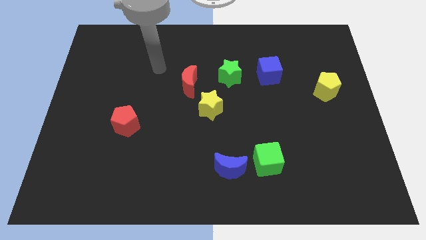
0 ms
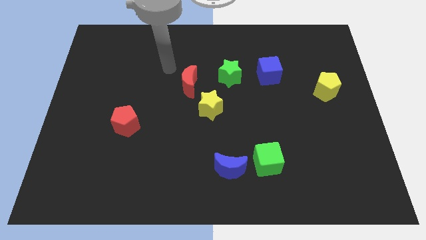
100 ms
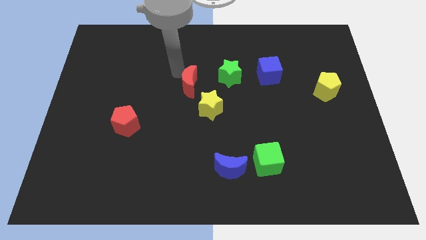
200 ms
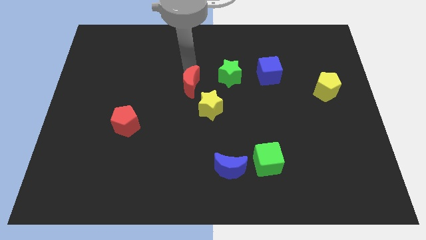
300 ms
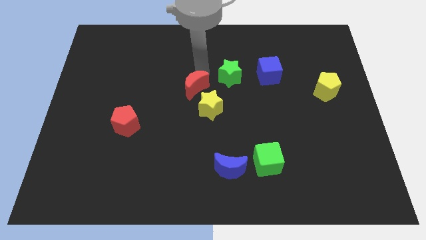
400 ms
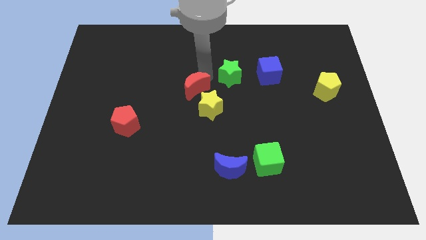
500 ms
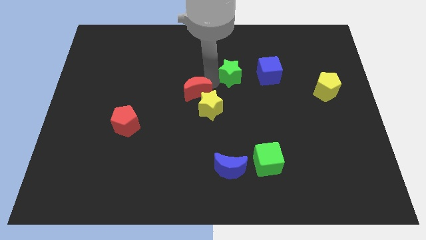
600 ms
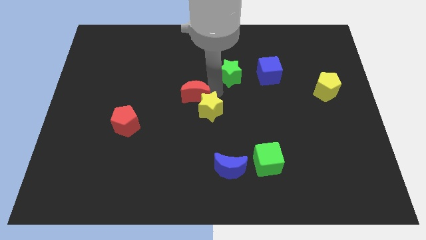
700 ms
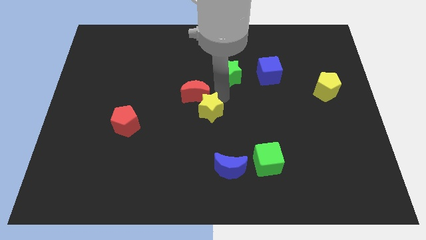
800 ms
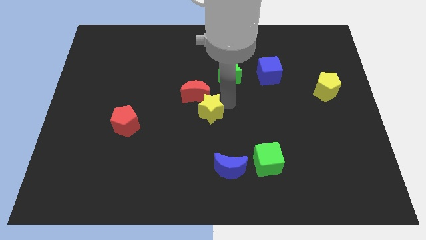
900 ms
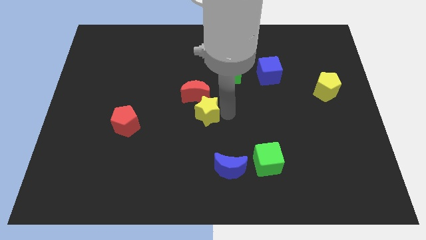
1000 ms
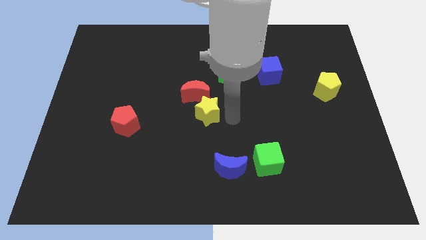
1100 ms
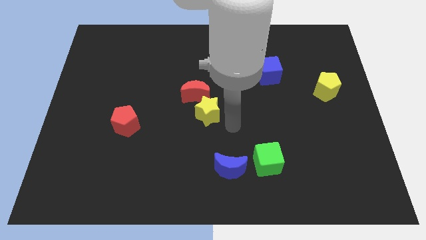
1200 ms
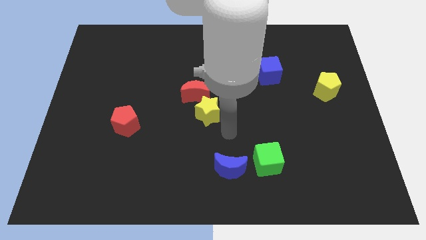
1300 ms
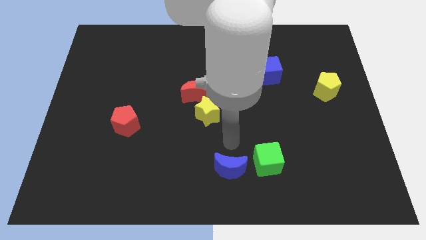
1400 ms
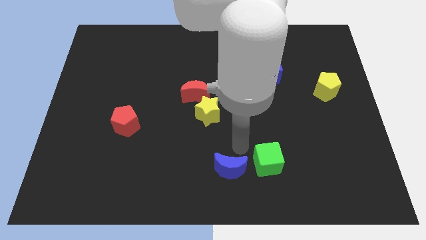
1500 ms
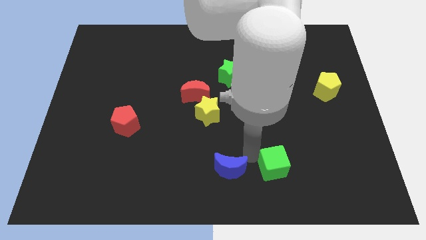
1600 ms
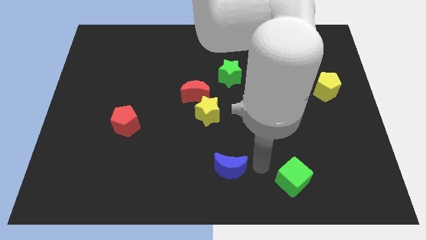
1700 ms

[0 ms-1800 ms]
move the blue moon away from the green cube

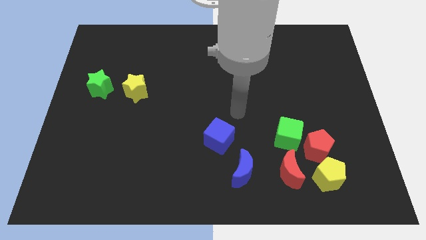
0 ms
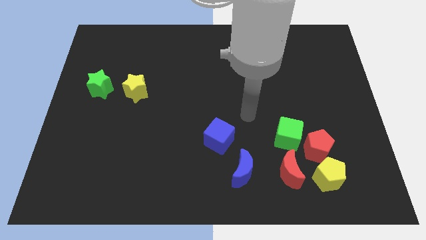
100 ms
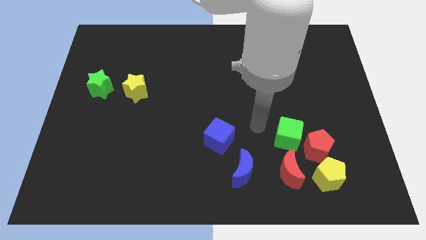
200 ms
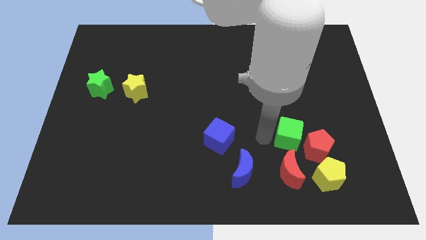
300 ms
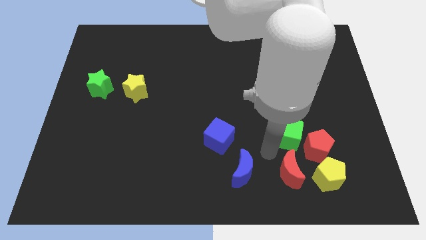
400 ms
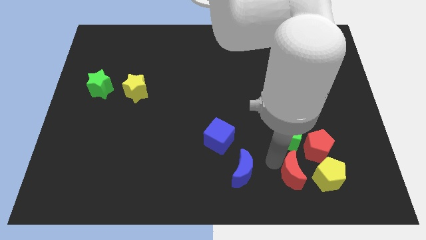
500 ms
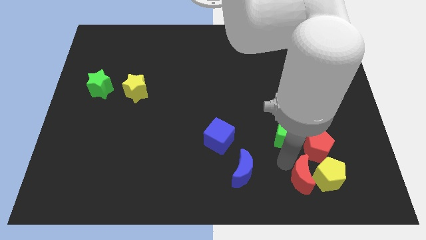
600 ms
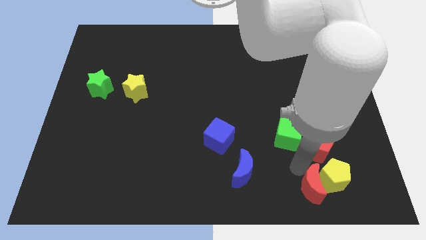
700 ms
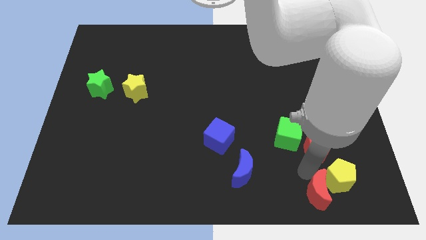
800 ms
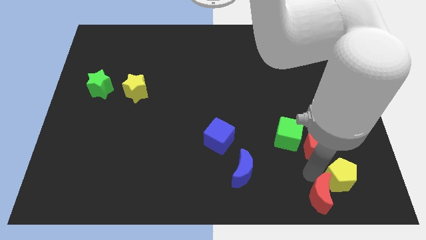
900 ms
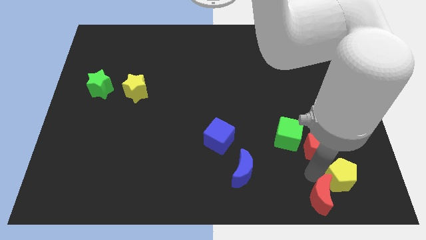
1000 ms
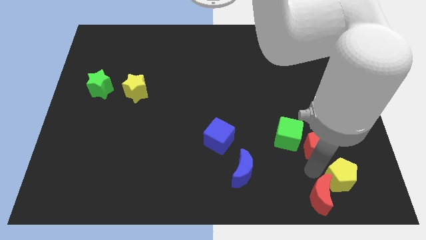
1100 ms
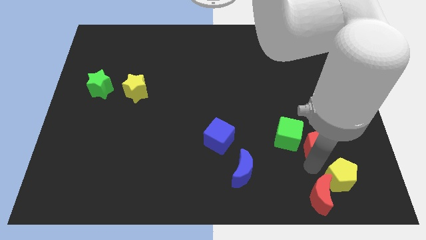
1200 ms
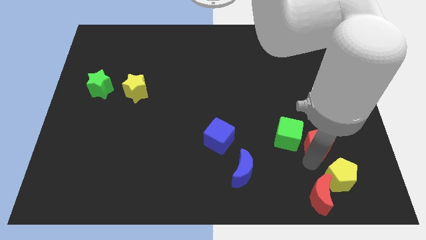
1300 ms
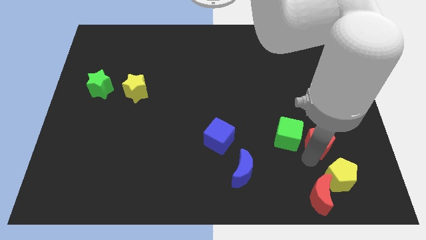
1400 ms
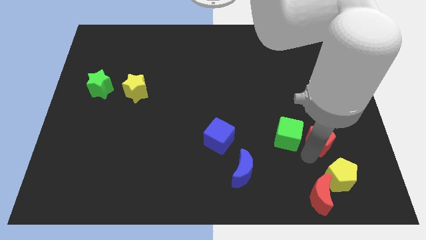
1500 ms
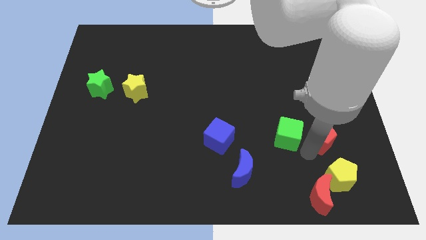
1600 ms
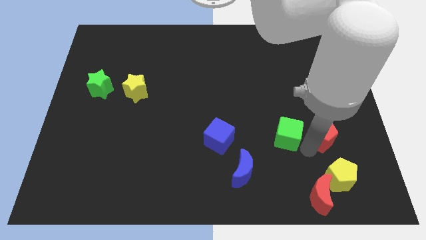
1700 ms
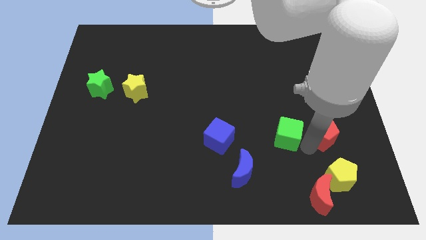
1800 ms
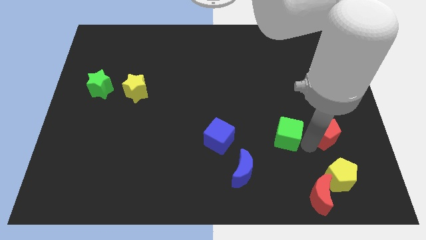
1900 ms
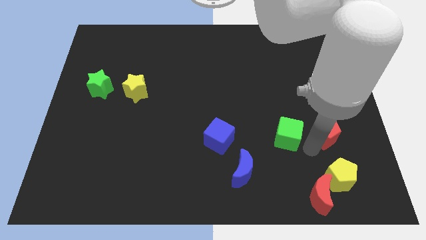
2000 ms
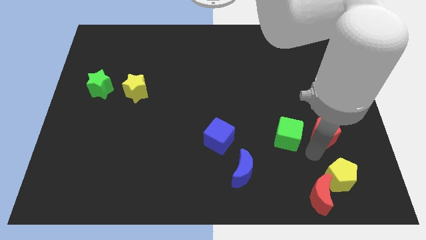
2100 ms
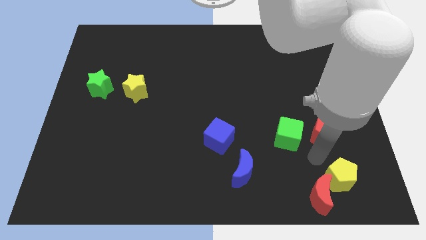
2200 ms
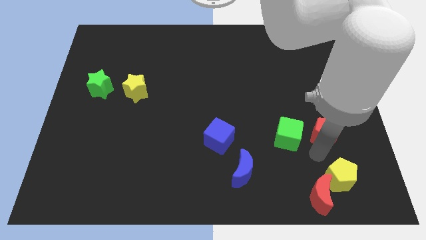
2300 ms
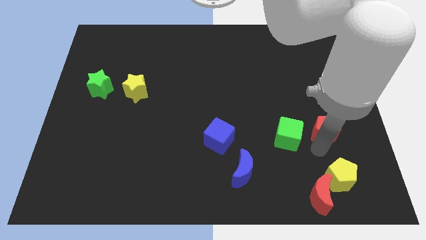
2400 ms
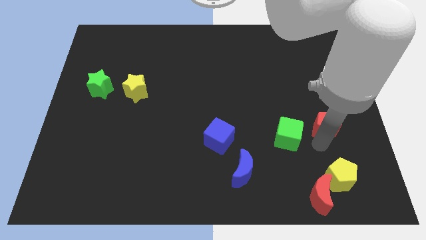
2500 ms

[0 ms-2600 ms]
move the red pentagon away from the clump

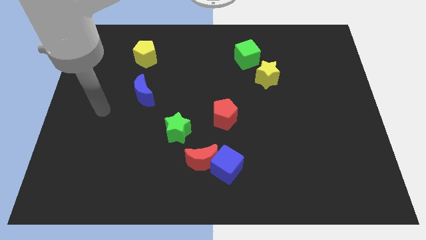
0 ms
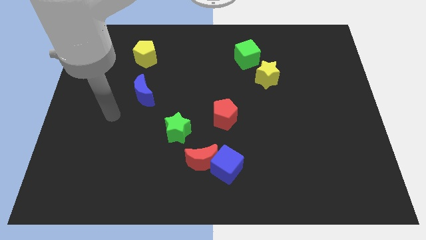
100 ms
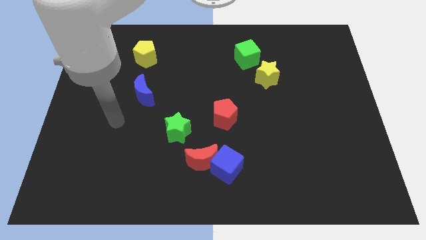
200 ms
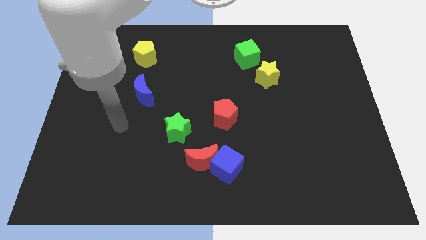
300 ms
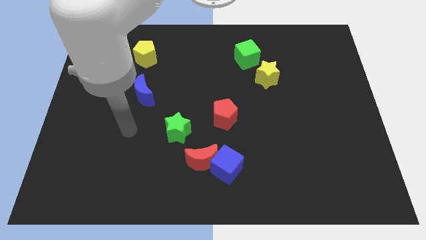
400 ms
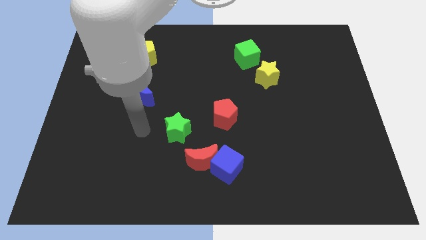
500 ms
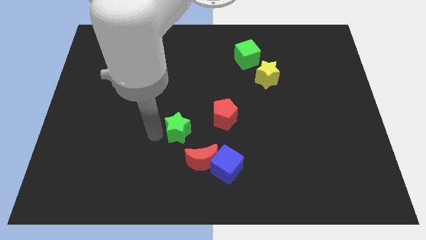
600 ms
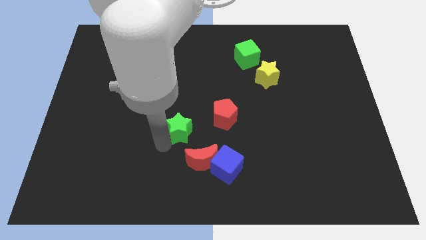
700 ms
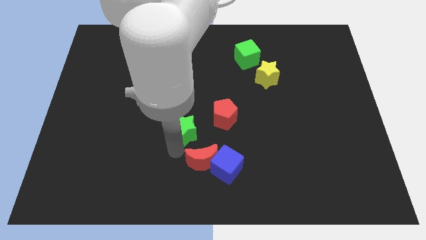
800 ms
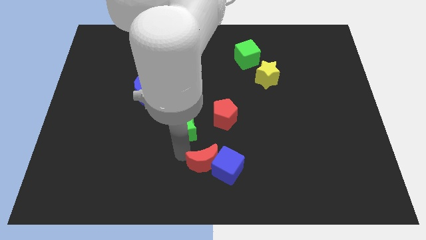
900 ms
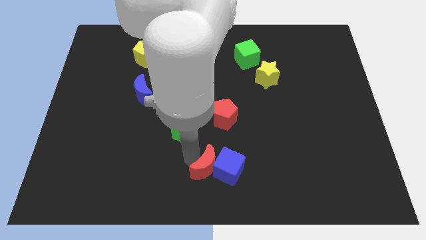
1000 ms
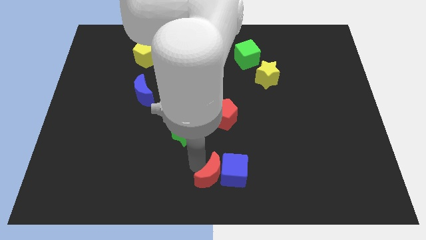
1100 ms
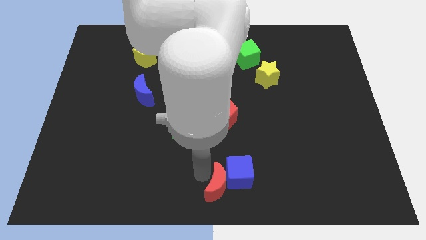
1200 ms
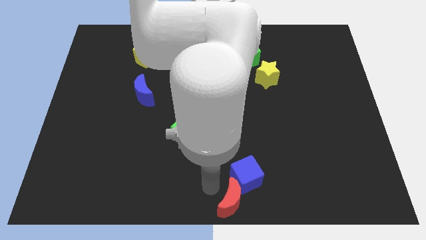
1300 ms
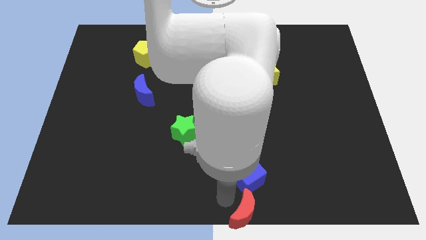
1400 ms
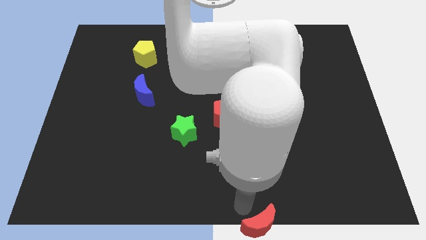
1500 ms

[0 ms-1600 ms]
move the blue cube away from the red moon

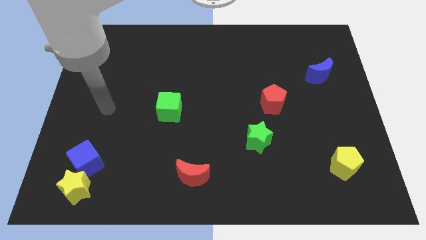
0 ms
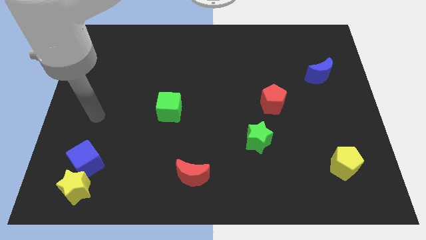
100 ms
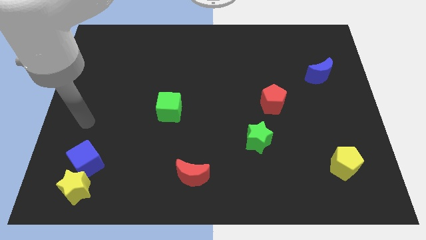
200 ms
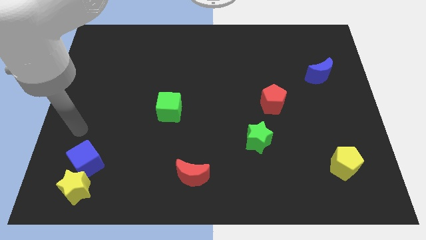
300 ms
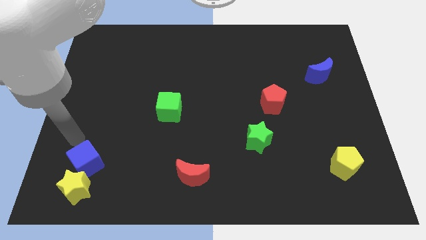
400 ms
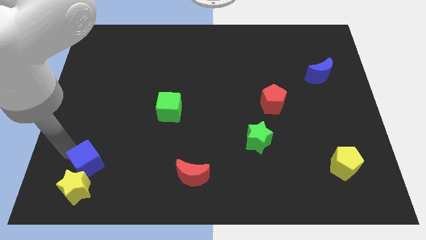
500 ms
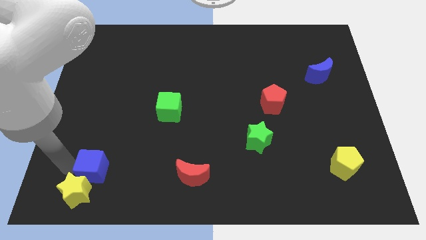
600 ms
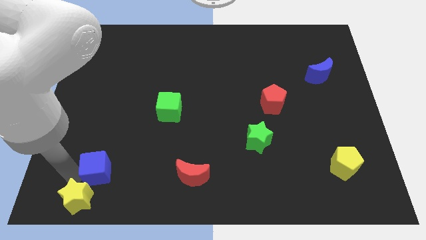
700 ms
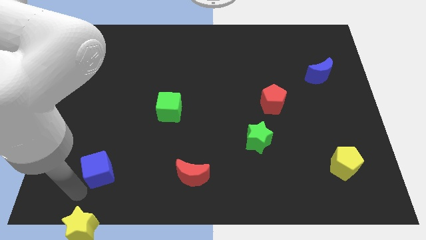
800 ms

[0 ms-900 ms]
move the blue cube away from the yellow star

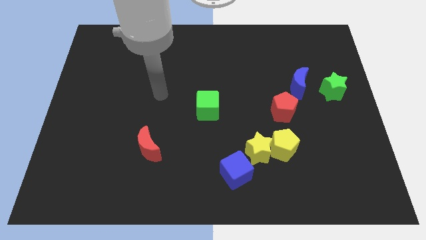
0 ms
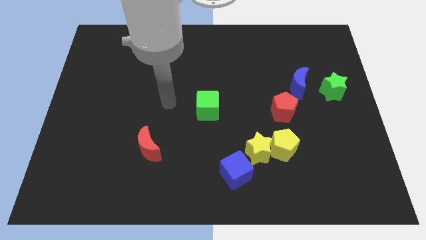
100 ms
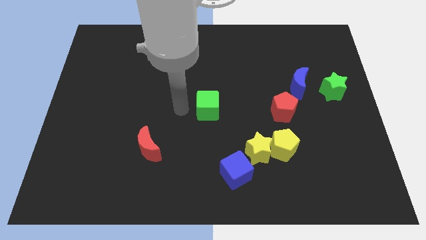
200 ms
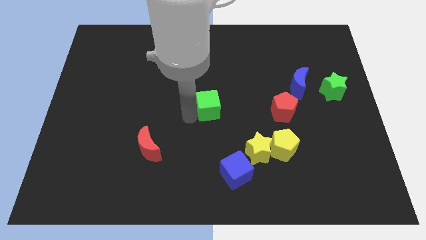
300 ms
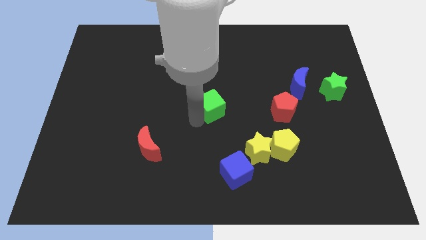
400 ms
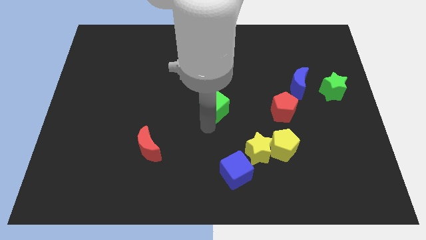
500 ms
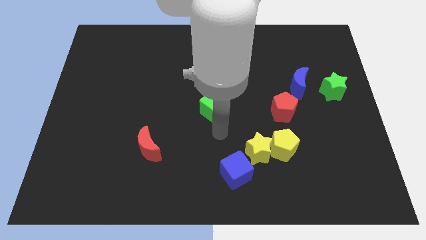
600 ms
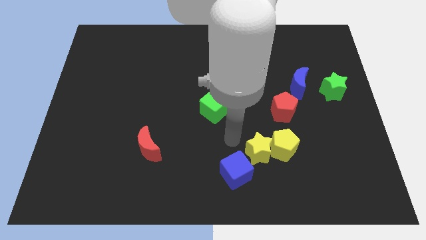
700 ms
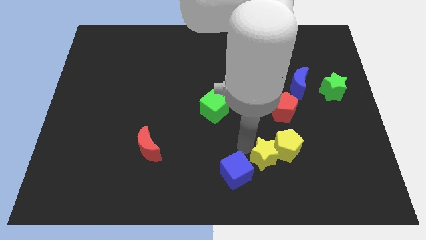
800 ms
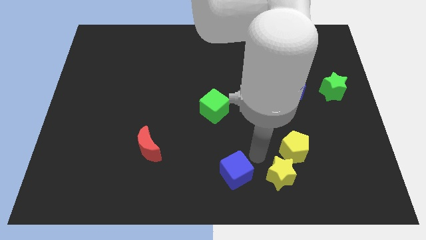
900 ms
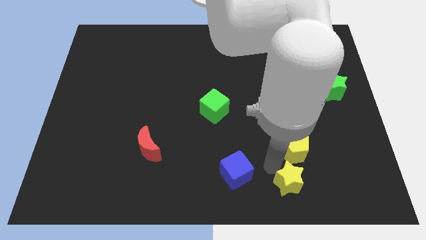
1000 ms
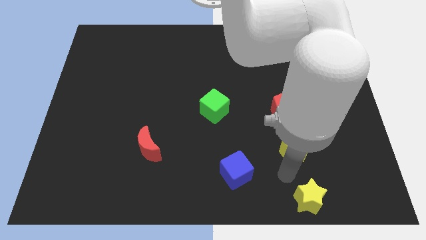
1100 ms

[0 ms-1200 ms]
move the yellow pentagon away from the yellow star

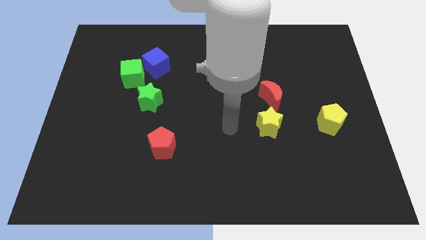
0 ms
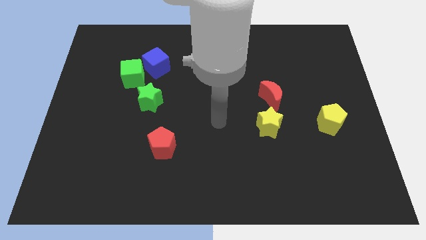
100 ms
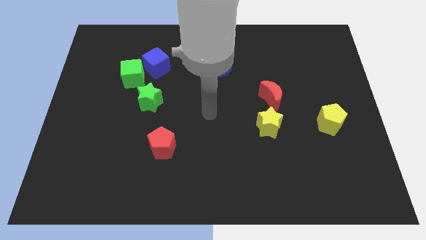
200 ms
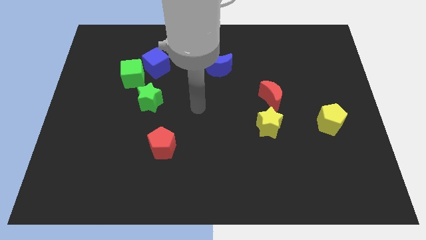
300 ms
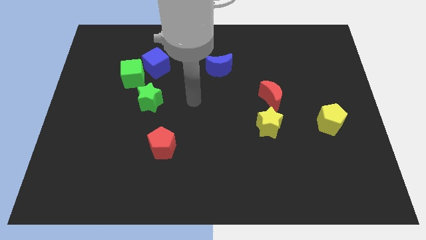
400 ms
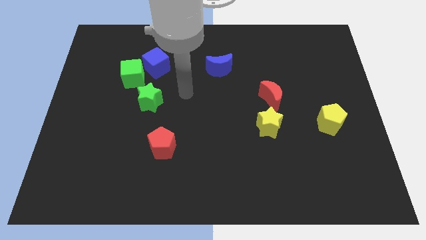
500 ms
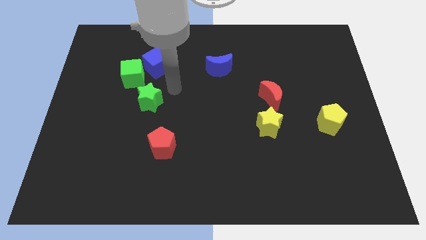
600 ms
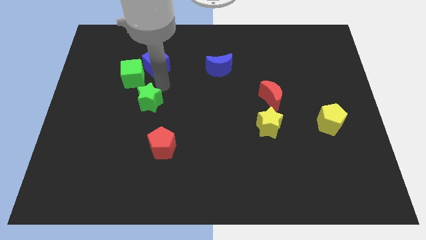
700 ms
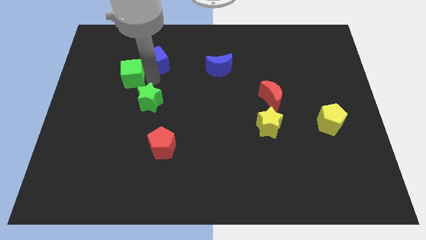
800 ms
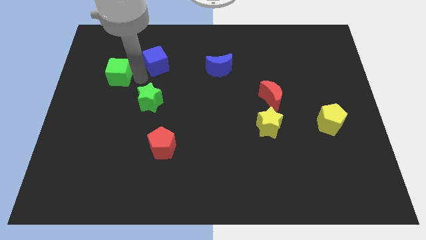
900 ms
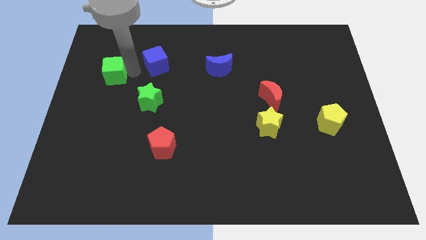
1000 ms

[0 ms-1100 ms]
separate the blue cube from the green cube

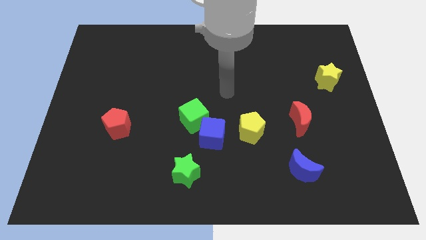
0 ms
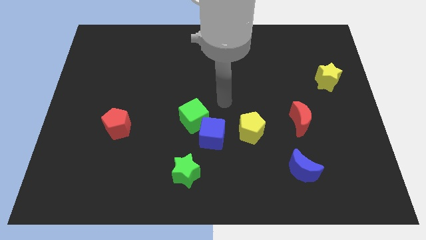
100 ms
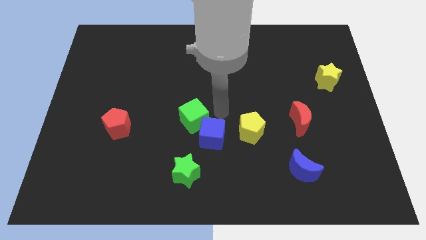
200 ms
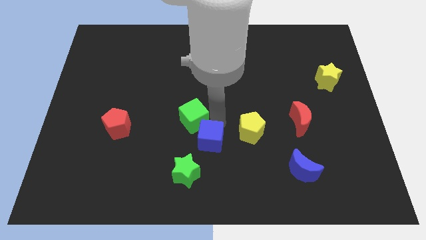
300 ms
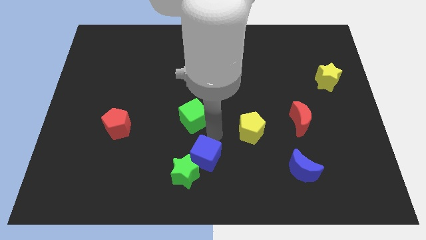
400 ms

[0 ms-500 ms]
separate the green cube from the blue cube
